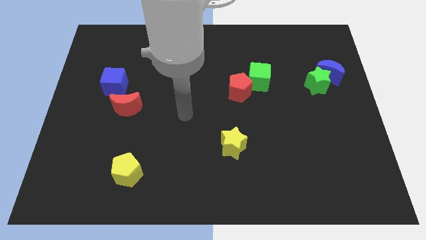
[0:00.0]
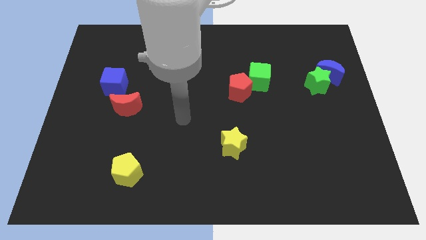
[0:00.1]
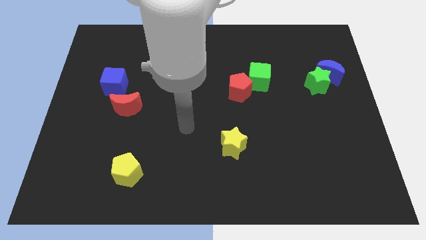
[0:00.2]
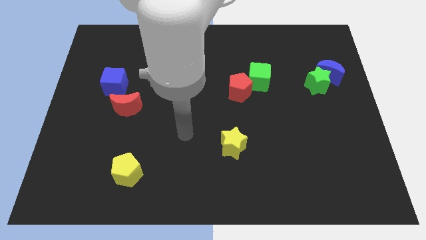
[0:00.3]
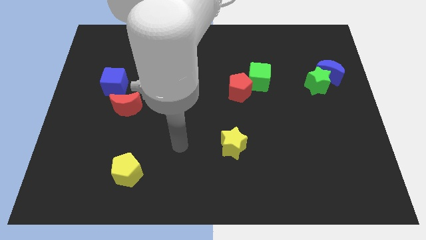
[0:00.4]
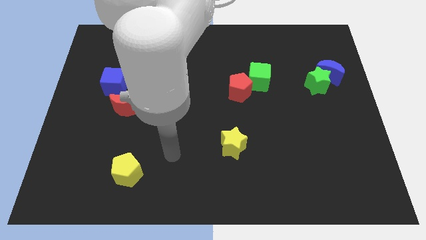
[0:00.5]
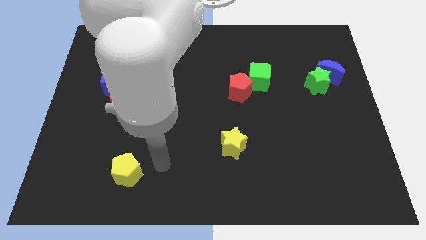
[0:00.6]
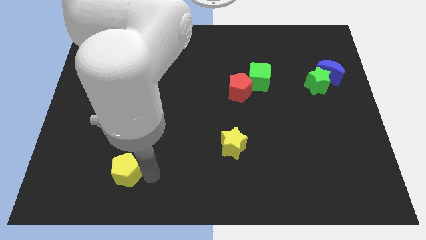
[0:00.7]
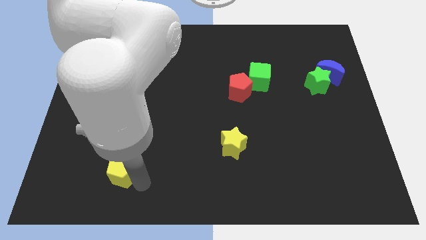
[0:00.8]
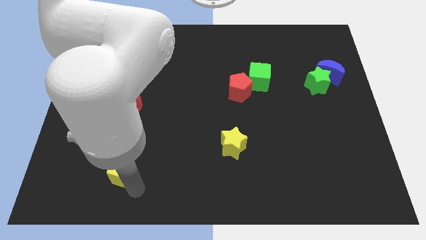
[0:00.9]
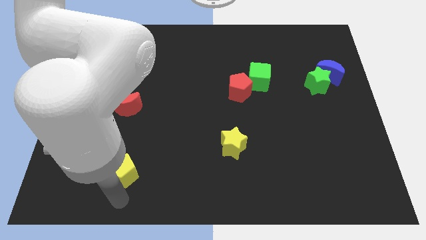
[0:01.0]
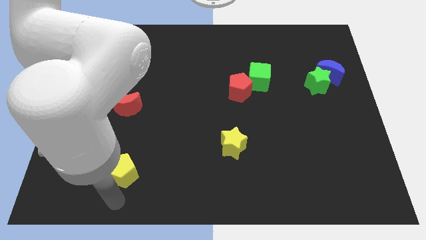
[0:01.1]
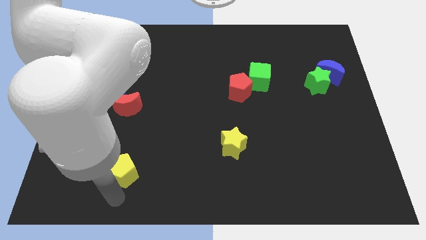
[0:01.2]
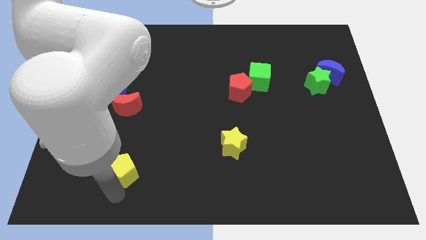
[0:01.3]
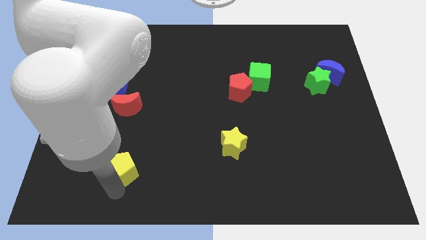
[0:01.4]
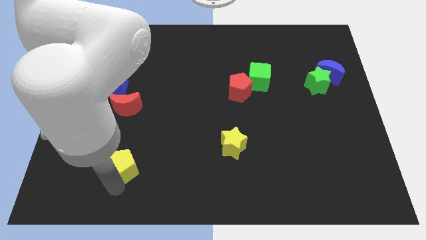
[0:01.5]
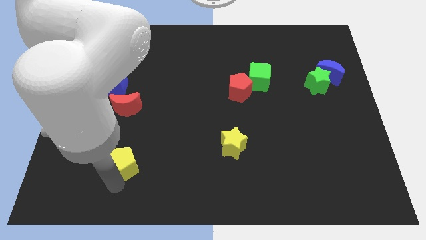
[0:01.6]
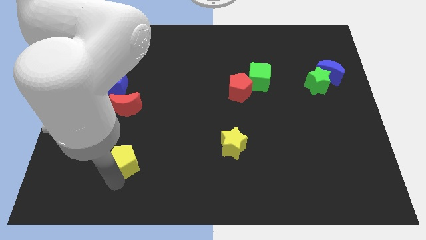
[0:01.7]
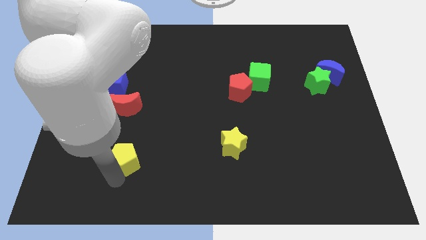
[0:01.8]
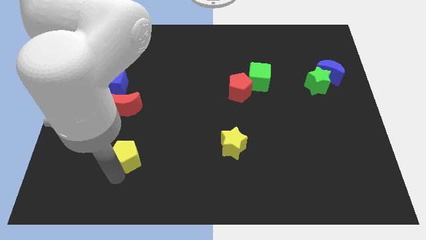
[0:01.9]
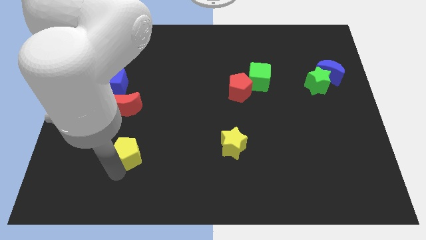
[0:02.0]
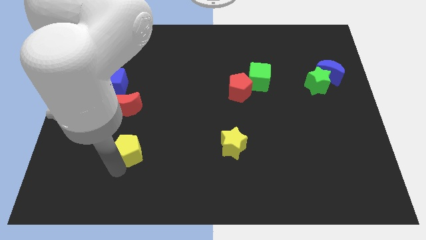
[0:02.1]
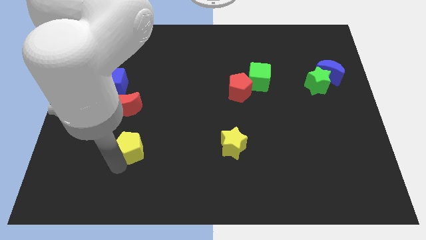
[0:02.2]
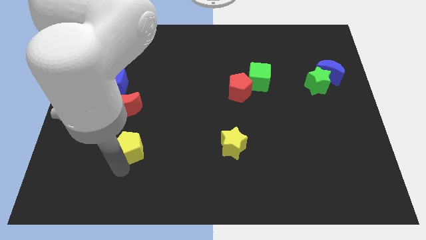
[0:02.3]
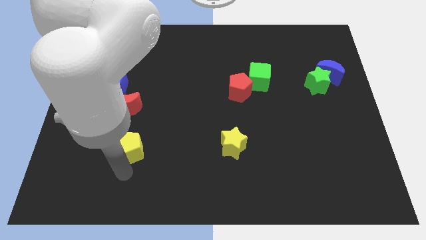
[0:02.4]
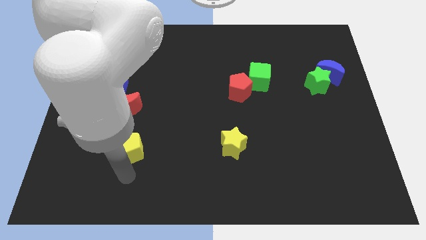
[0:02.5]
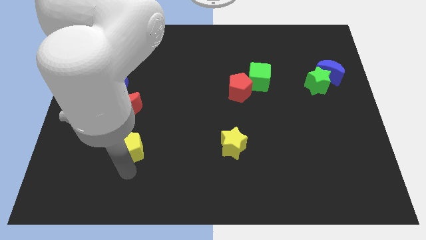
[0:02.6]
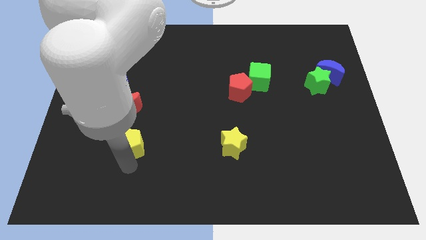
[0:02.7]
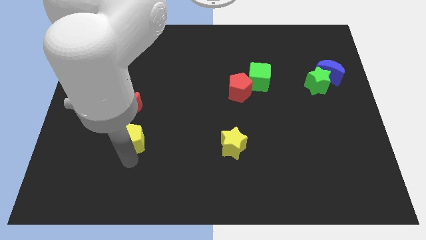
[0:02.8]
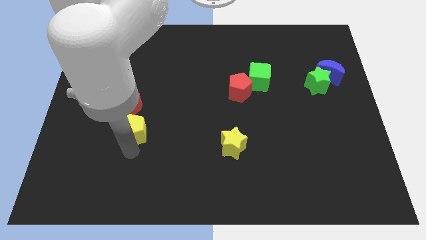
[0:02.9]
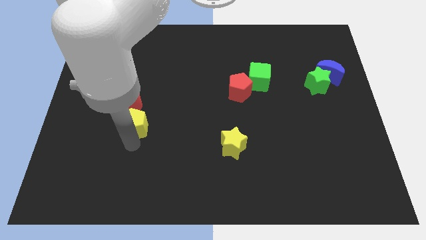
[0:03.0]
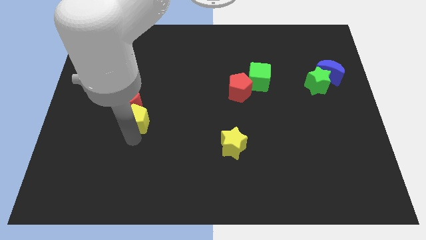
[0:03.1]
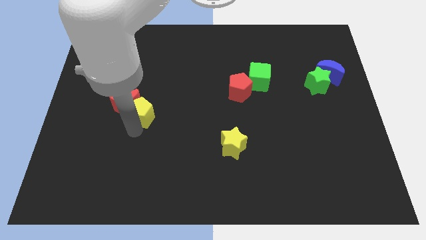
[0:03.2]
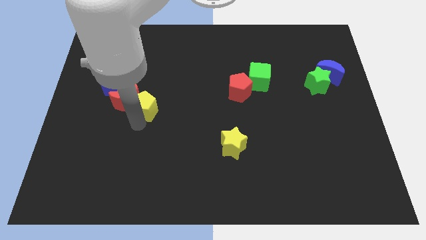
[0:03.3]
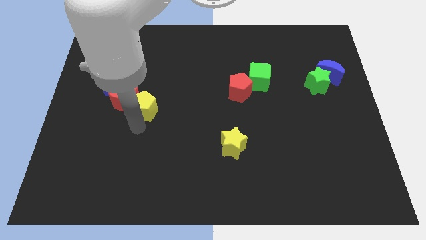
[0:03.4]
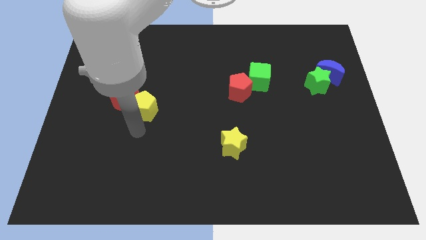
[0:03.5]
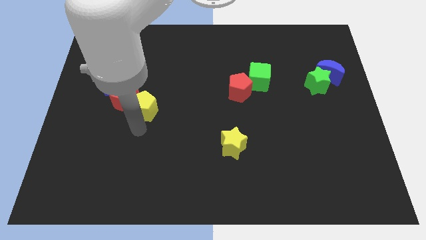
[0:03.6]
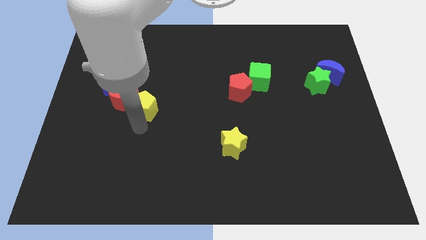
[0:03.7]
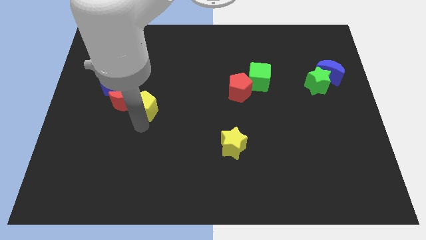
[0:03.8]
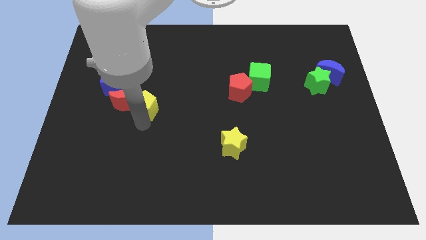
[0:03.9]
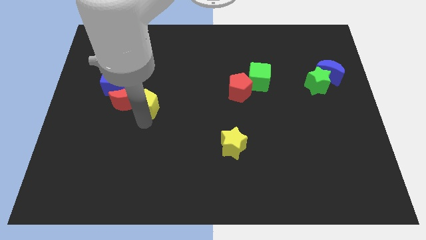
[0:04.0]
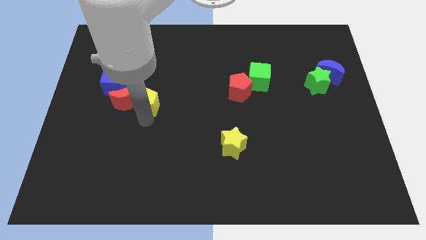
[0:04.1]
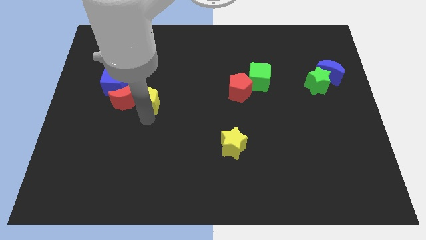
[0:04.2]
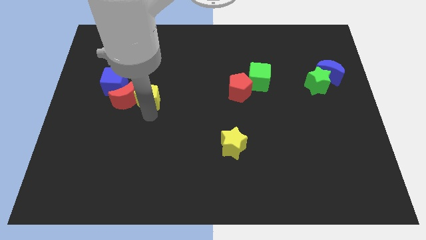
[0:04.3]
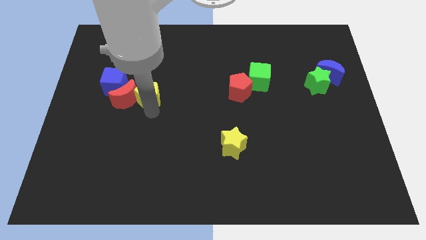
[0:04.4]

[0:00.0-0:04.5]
push the yellow pentagon up

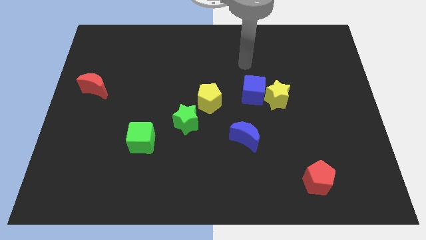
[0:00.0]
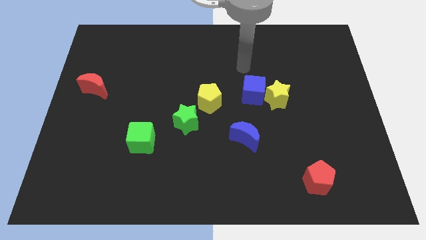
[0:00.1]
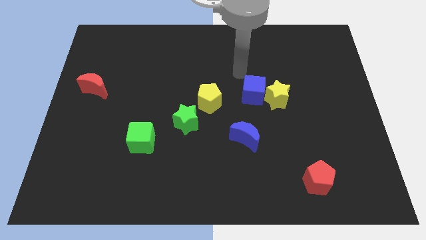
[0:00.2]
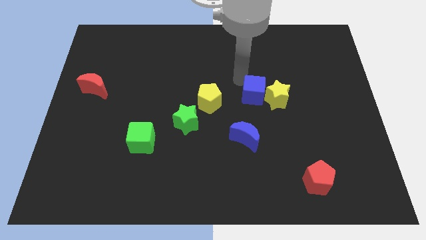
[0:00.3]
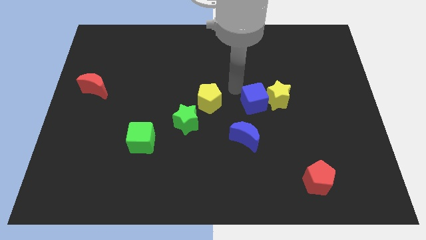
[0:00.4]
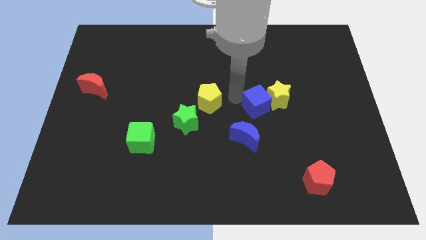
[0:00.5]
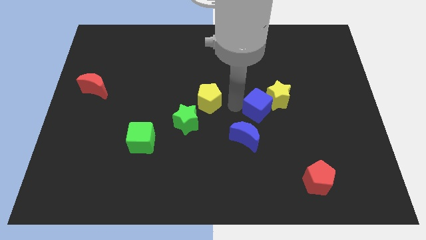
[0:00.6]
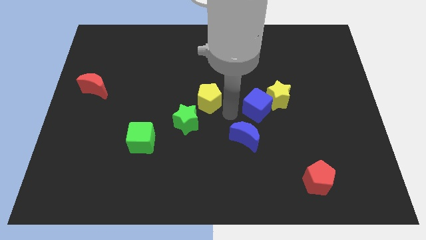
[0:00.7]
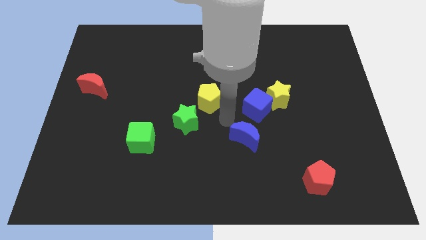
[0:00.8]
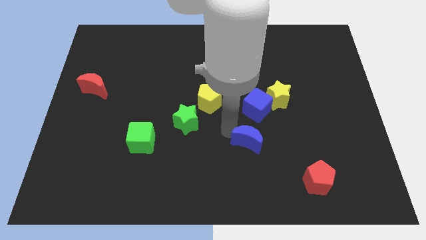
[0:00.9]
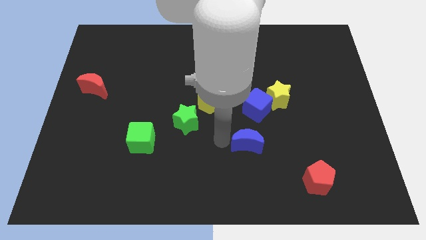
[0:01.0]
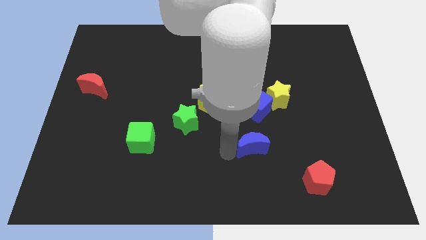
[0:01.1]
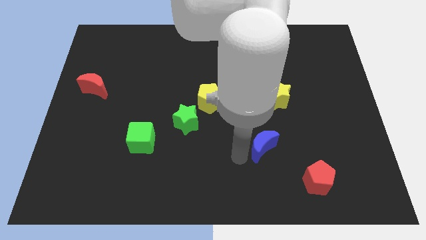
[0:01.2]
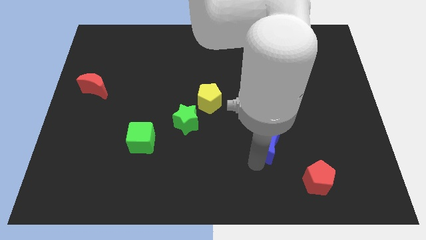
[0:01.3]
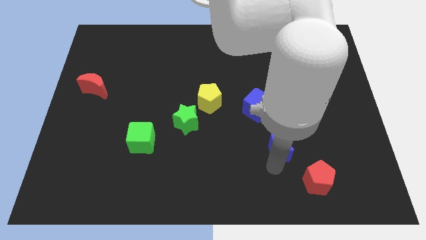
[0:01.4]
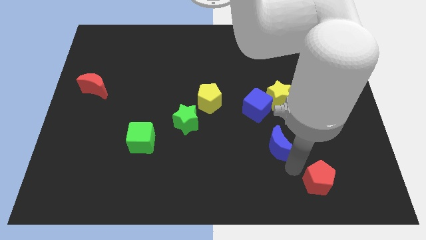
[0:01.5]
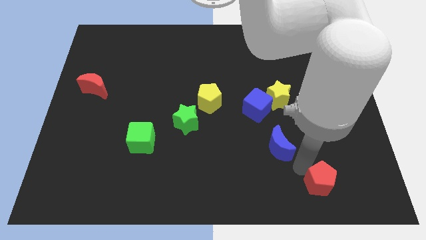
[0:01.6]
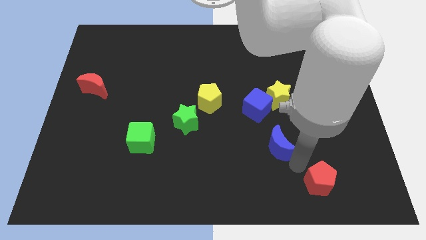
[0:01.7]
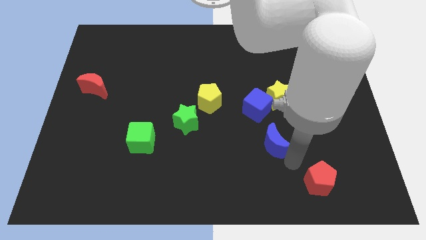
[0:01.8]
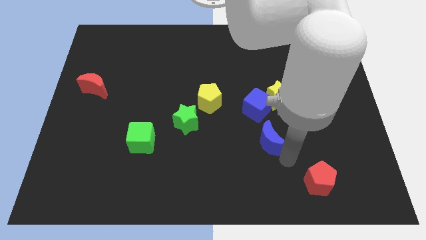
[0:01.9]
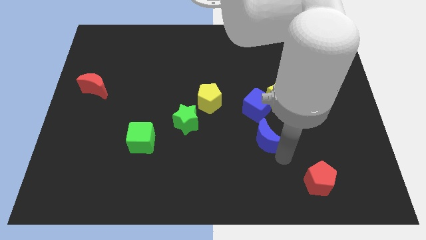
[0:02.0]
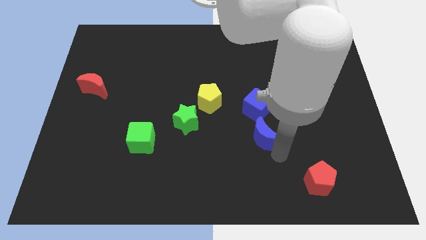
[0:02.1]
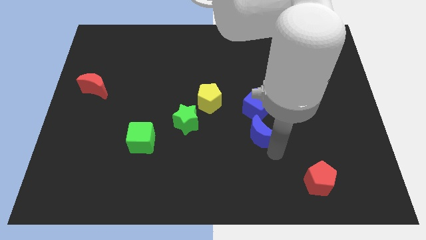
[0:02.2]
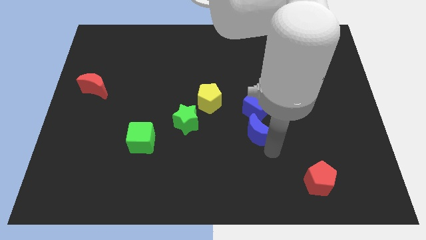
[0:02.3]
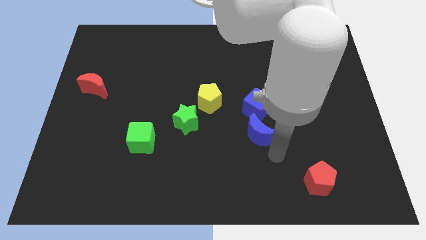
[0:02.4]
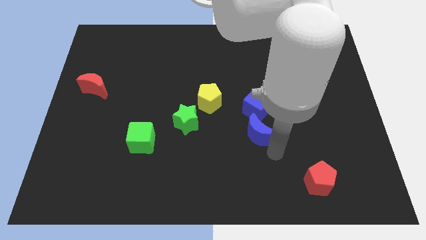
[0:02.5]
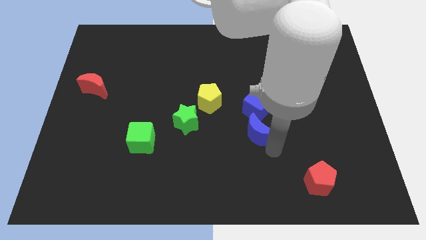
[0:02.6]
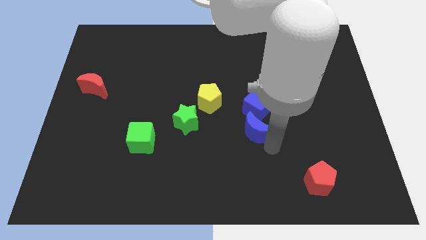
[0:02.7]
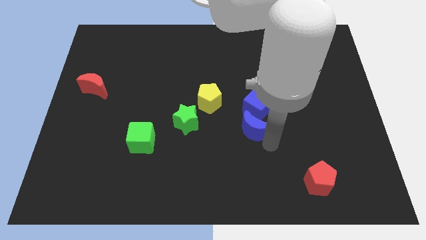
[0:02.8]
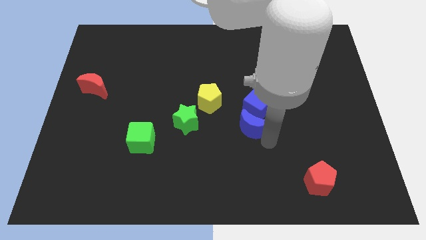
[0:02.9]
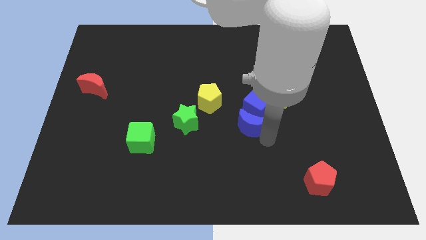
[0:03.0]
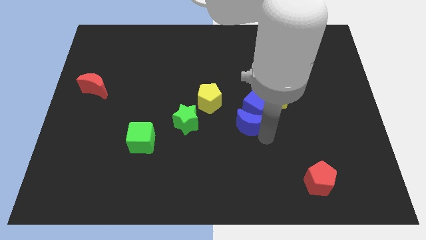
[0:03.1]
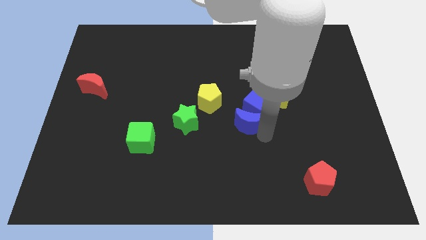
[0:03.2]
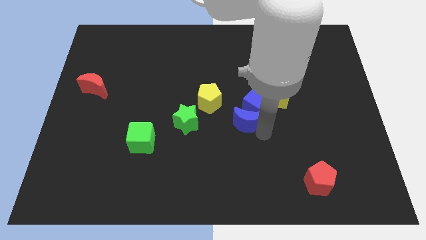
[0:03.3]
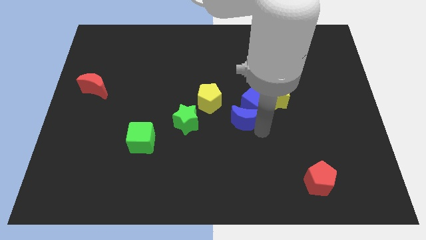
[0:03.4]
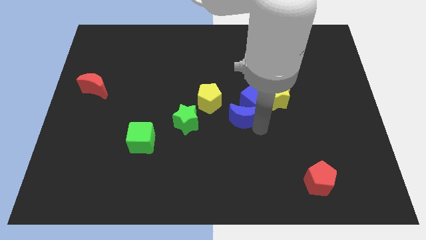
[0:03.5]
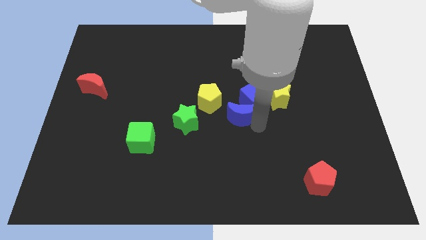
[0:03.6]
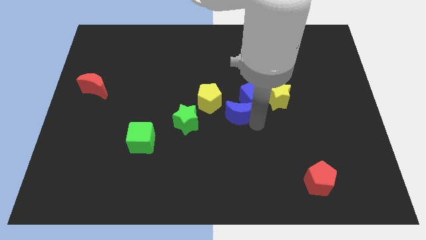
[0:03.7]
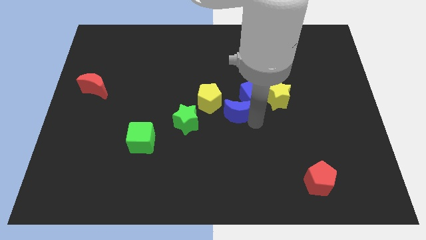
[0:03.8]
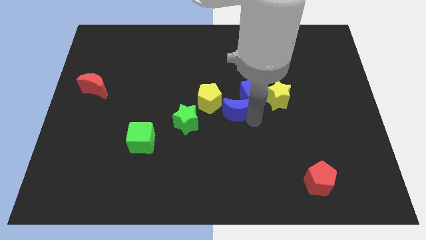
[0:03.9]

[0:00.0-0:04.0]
slide the blue moon a little upwards
